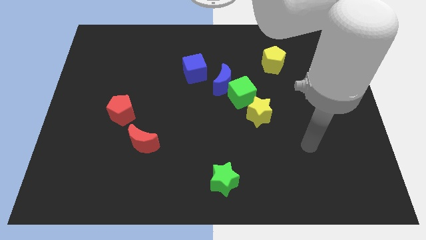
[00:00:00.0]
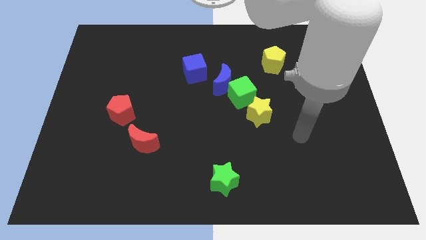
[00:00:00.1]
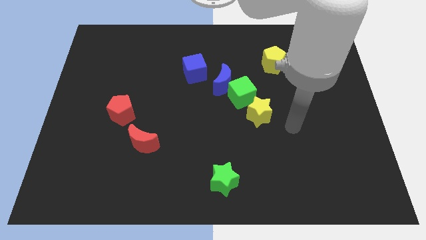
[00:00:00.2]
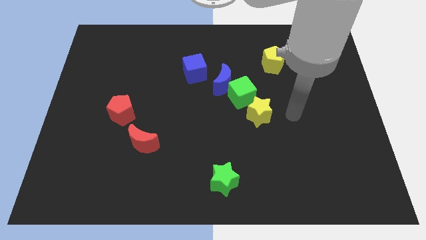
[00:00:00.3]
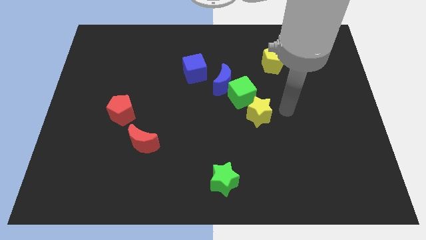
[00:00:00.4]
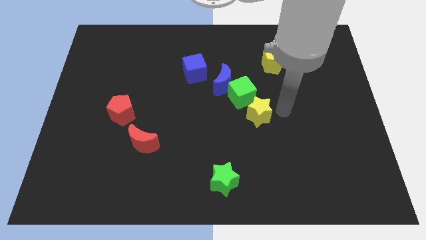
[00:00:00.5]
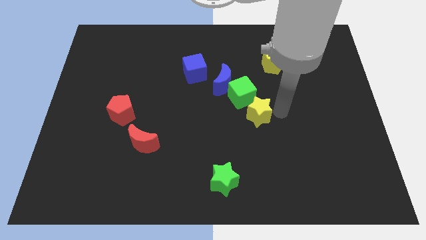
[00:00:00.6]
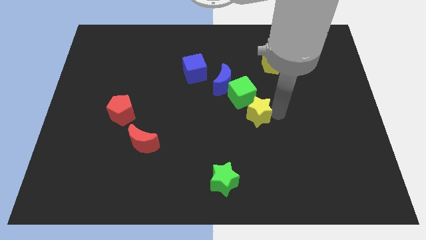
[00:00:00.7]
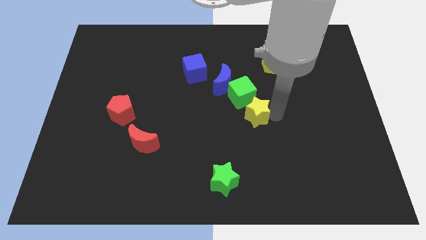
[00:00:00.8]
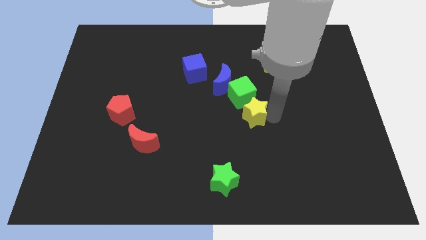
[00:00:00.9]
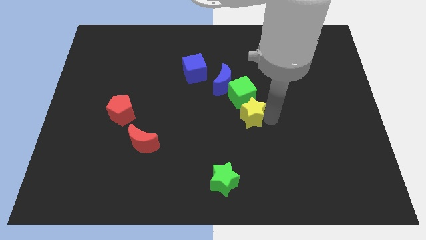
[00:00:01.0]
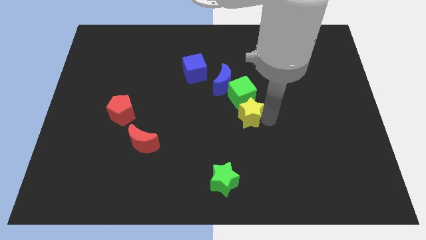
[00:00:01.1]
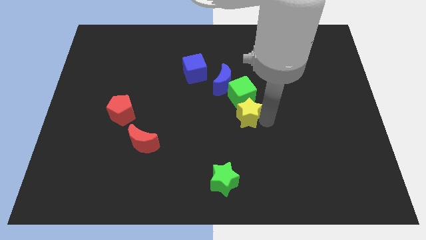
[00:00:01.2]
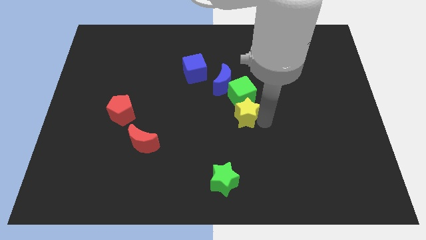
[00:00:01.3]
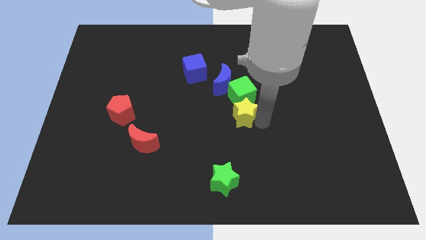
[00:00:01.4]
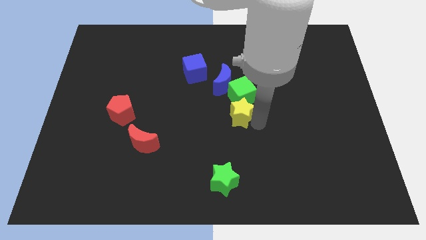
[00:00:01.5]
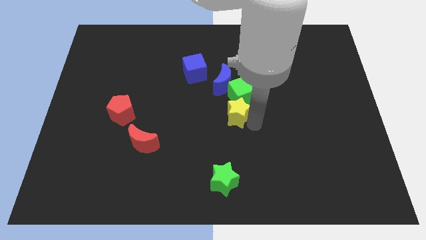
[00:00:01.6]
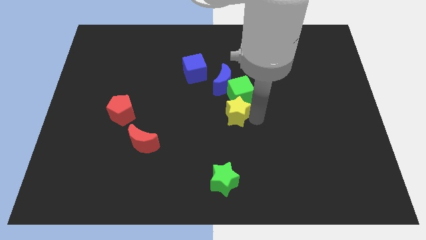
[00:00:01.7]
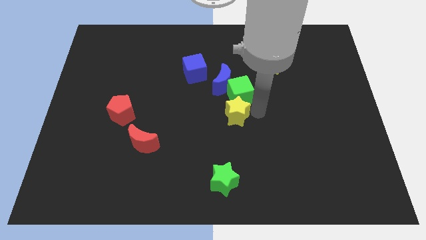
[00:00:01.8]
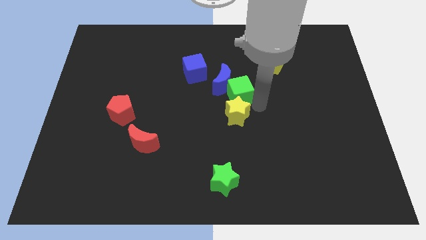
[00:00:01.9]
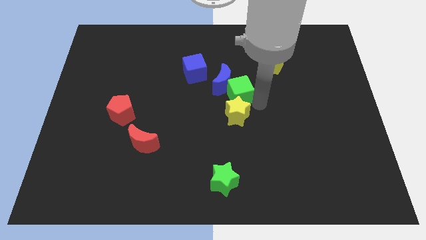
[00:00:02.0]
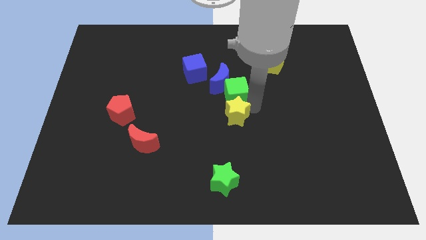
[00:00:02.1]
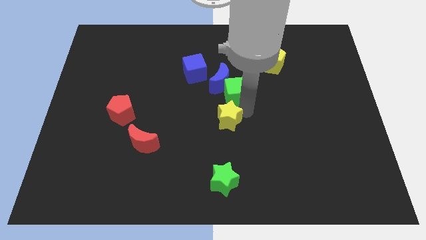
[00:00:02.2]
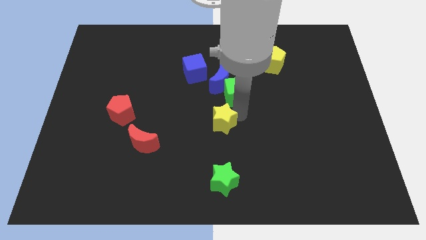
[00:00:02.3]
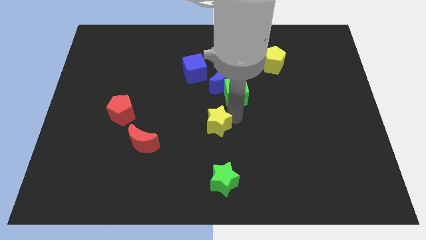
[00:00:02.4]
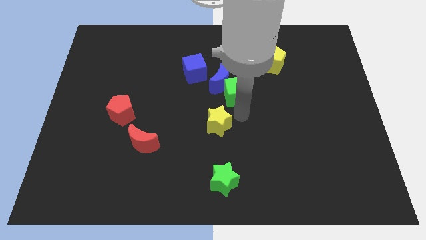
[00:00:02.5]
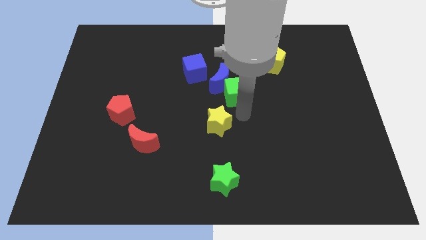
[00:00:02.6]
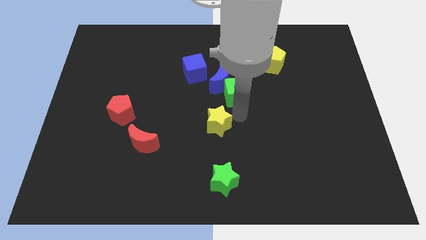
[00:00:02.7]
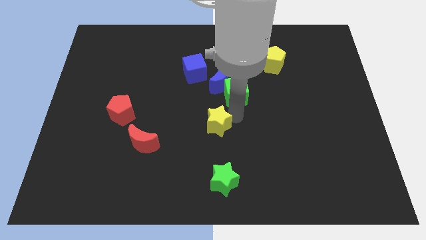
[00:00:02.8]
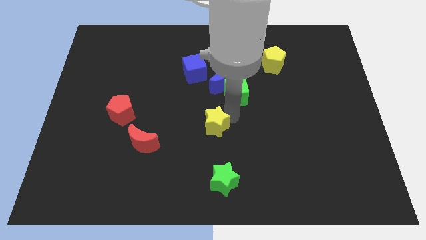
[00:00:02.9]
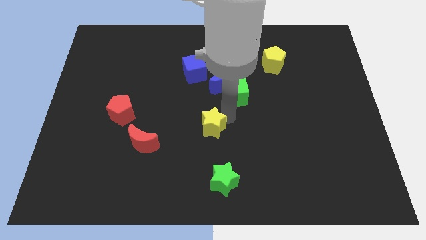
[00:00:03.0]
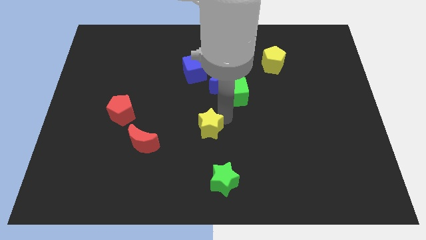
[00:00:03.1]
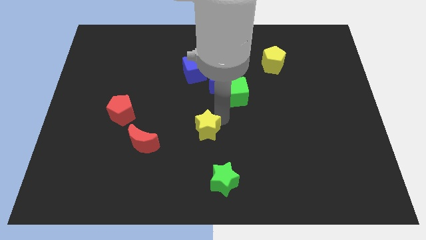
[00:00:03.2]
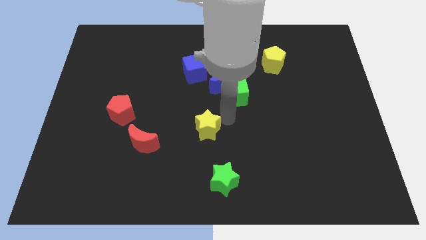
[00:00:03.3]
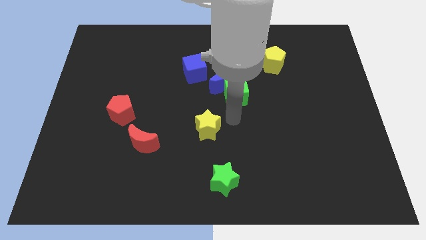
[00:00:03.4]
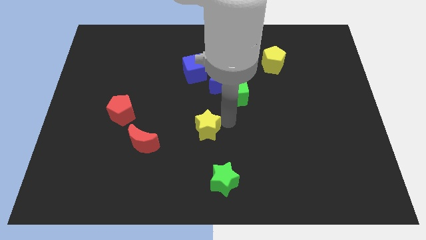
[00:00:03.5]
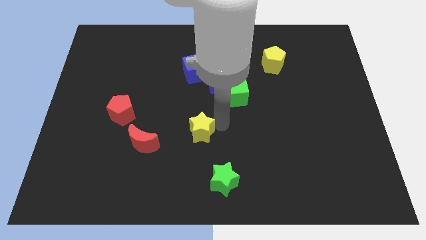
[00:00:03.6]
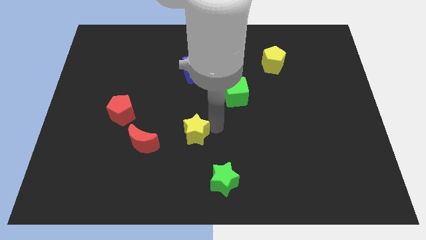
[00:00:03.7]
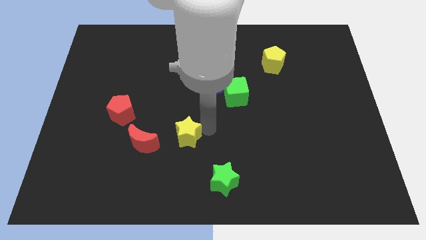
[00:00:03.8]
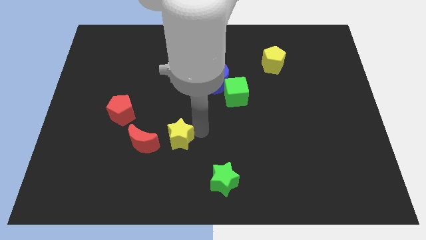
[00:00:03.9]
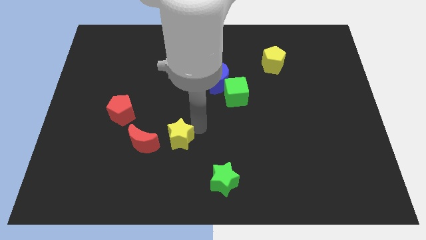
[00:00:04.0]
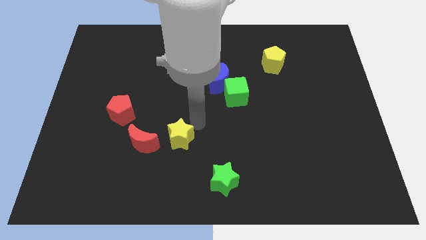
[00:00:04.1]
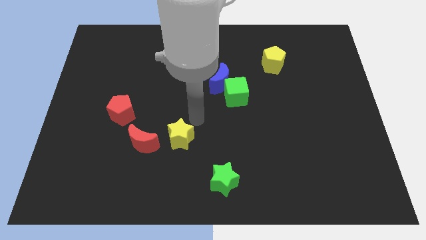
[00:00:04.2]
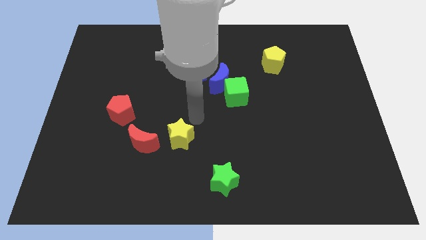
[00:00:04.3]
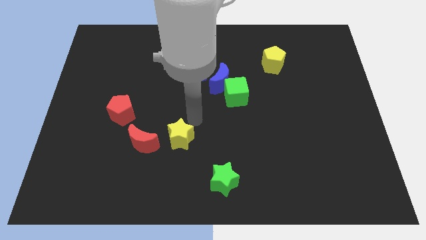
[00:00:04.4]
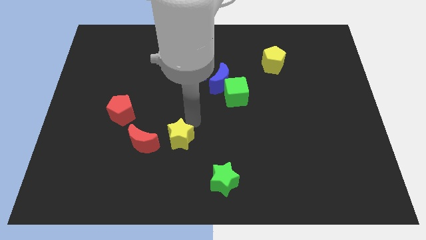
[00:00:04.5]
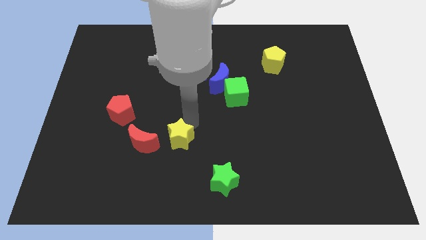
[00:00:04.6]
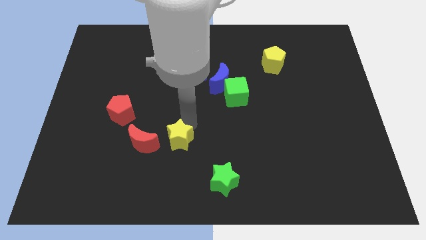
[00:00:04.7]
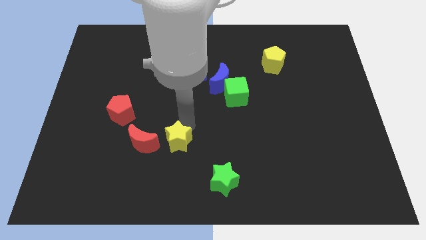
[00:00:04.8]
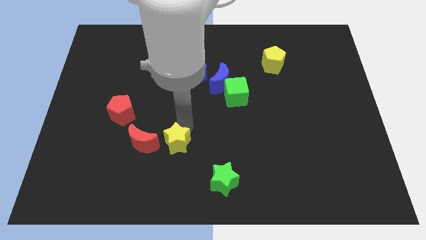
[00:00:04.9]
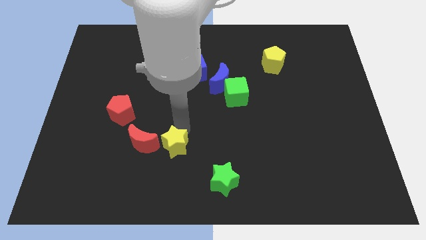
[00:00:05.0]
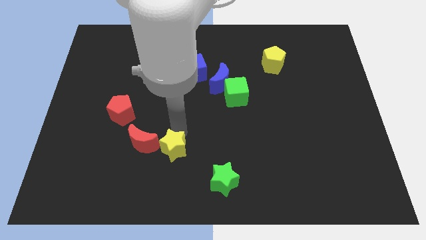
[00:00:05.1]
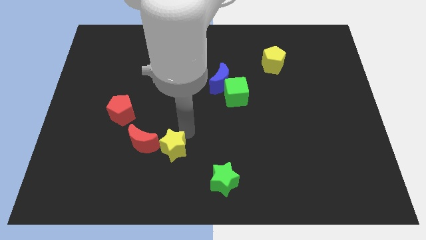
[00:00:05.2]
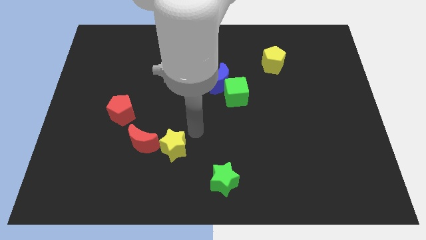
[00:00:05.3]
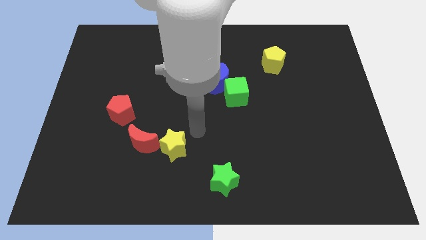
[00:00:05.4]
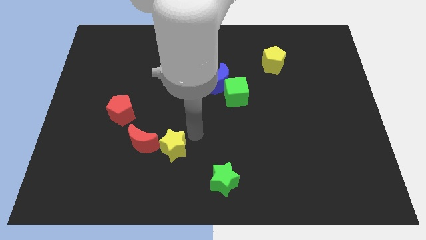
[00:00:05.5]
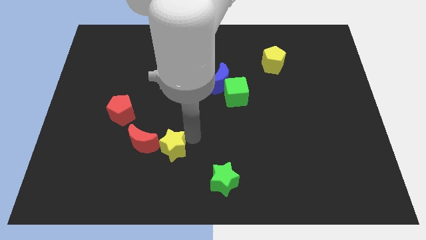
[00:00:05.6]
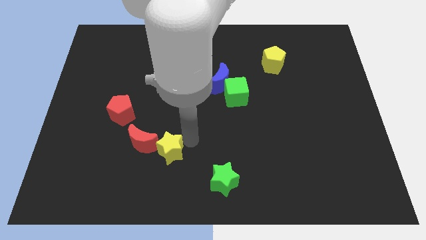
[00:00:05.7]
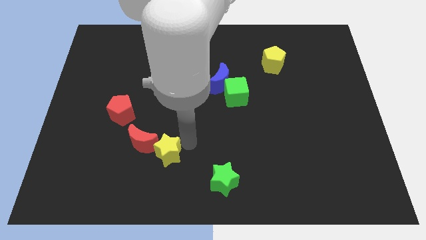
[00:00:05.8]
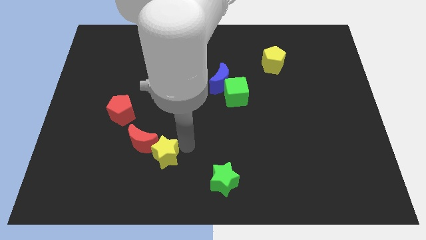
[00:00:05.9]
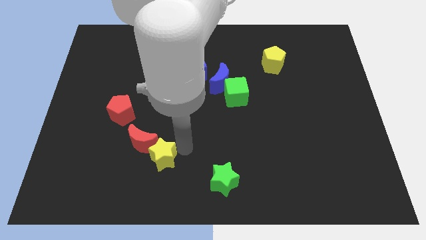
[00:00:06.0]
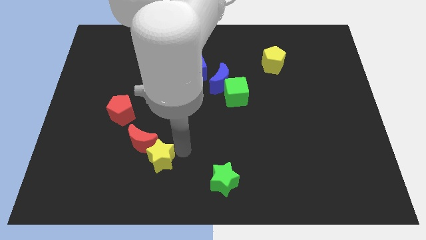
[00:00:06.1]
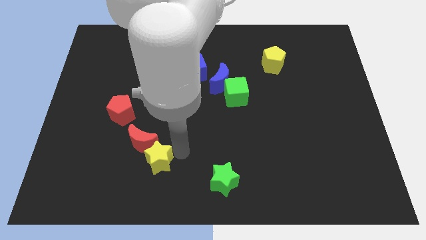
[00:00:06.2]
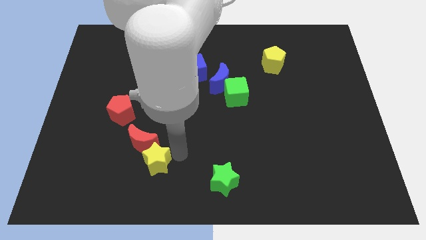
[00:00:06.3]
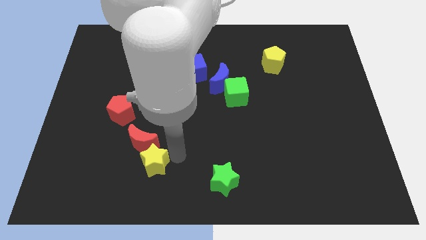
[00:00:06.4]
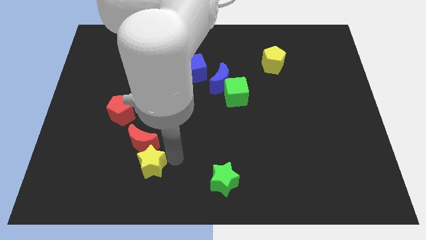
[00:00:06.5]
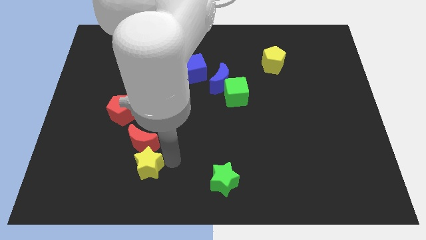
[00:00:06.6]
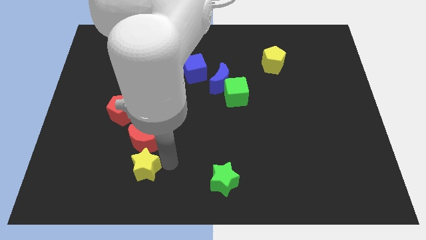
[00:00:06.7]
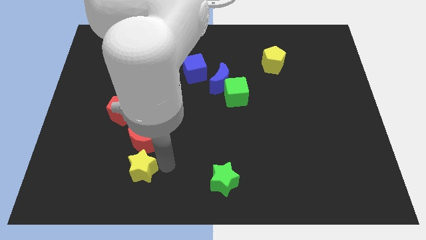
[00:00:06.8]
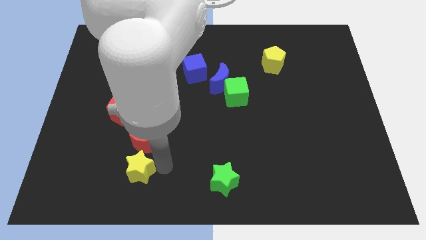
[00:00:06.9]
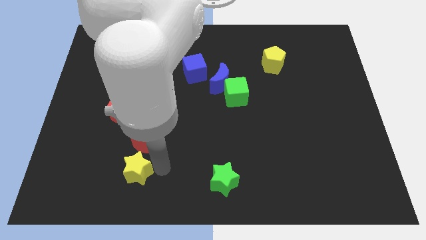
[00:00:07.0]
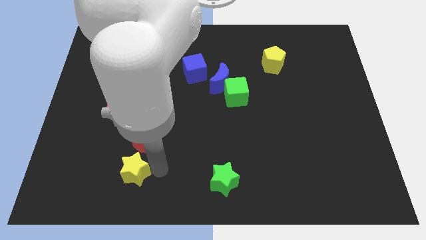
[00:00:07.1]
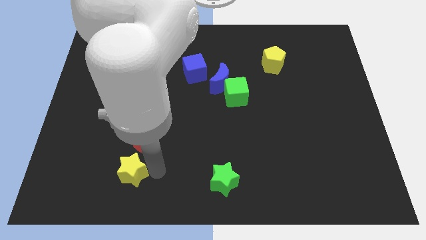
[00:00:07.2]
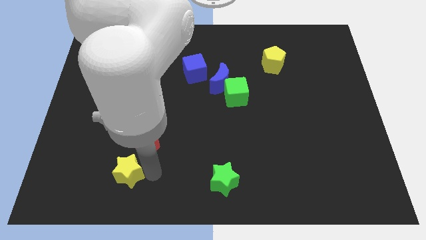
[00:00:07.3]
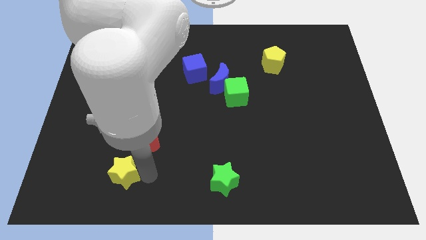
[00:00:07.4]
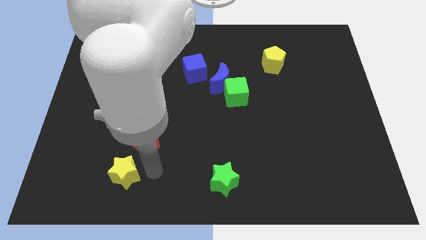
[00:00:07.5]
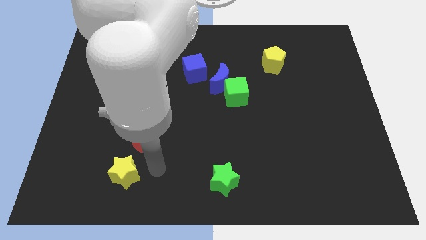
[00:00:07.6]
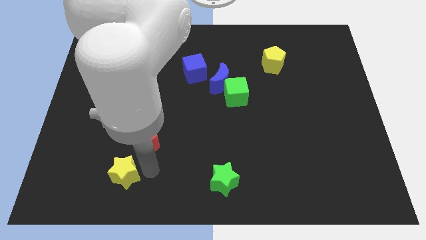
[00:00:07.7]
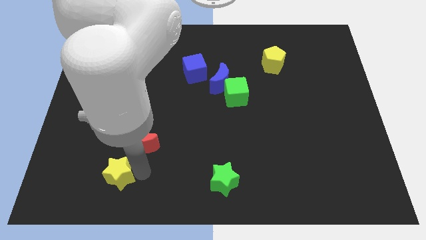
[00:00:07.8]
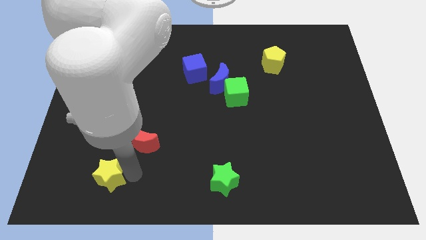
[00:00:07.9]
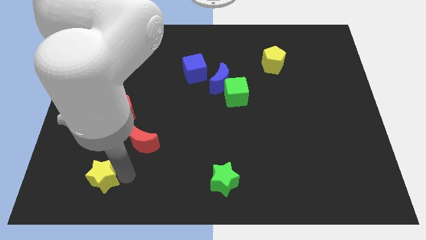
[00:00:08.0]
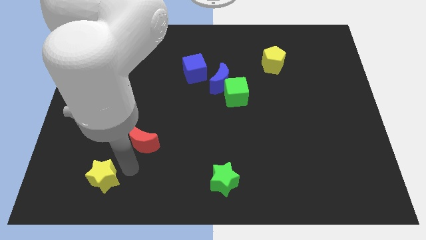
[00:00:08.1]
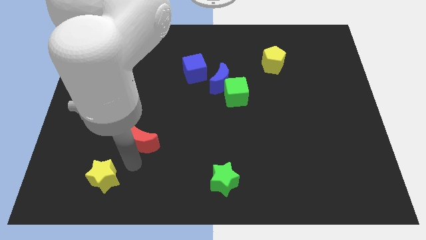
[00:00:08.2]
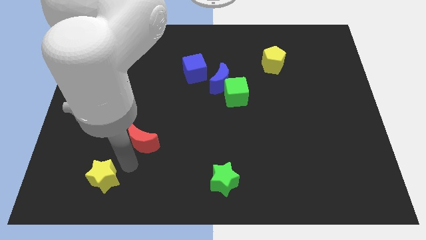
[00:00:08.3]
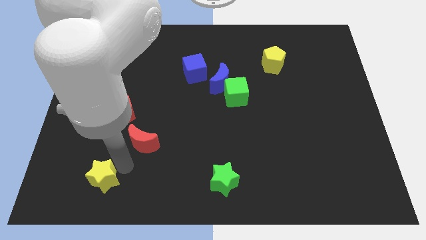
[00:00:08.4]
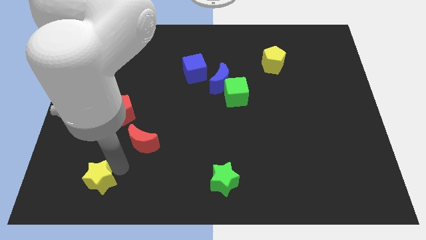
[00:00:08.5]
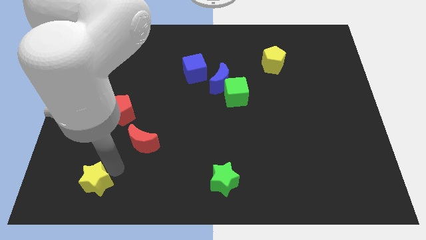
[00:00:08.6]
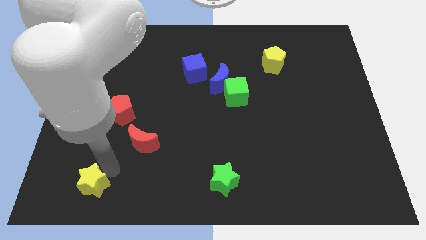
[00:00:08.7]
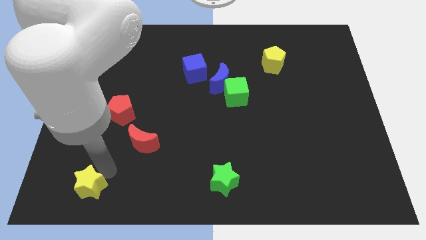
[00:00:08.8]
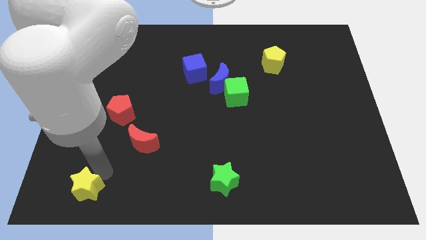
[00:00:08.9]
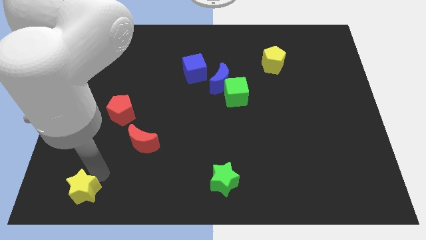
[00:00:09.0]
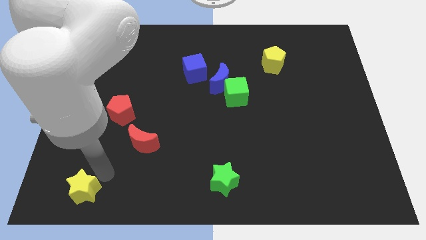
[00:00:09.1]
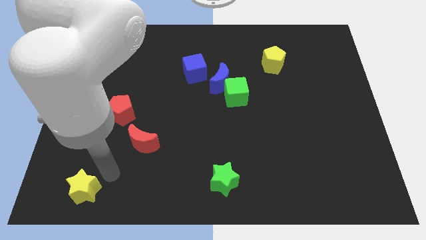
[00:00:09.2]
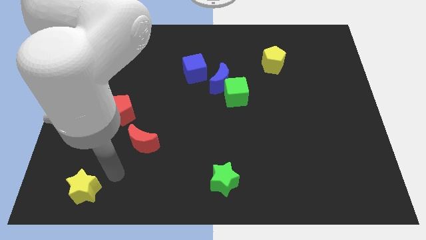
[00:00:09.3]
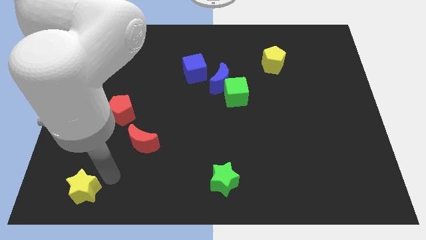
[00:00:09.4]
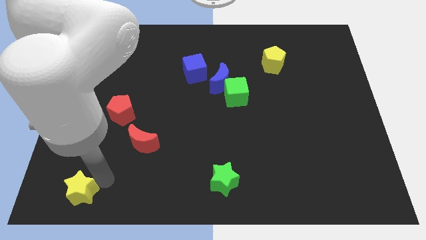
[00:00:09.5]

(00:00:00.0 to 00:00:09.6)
put the yellow star to the lower left corner
